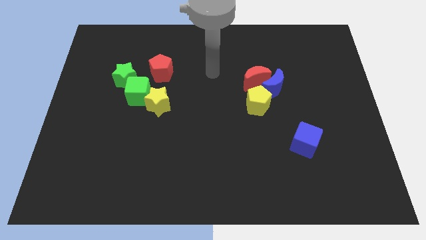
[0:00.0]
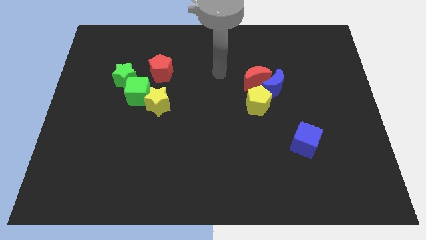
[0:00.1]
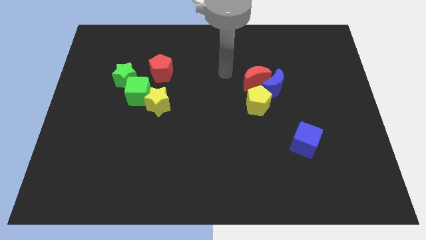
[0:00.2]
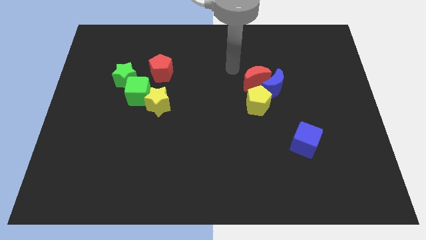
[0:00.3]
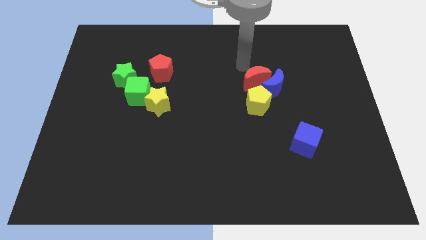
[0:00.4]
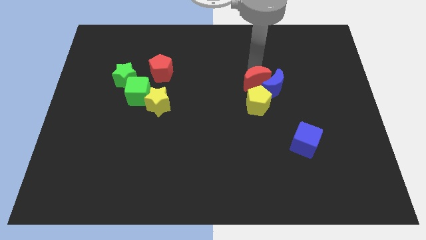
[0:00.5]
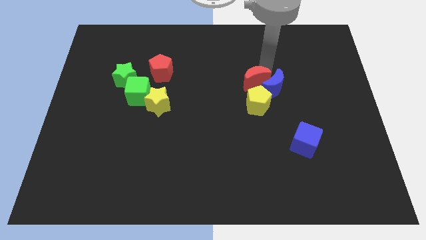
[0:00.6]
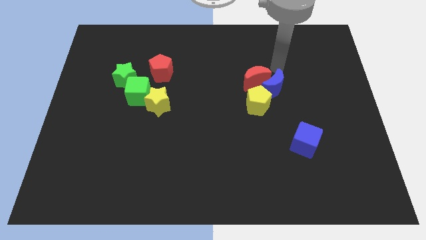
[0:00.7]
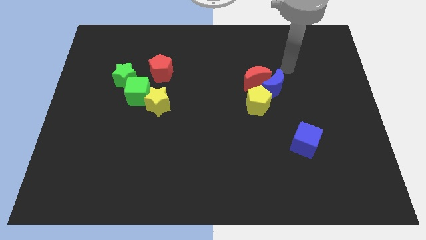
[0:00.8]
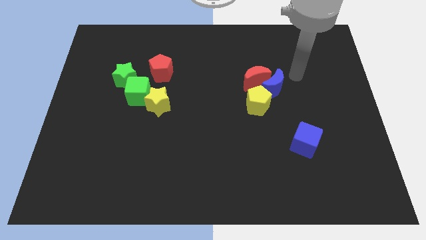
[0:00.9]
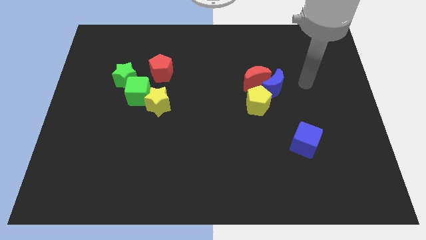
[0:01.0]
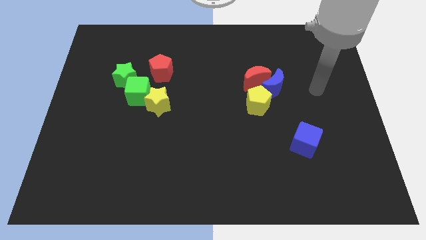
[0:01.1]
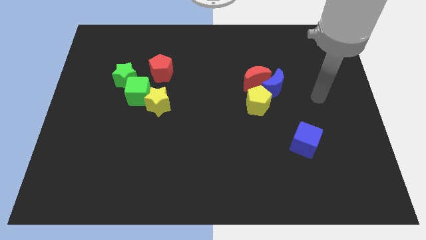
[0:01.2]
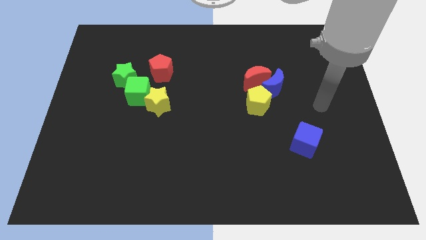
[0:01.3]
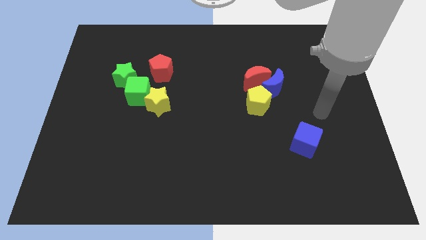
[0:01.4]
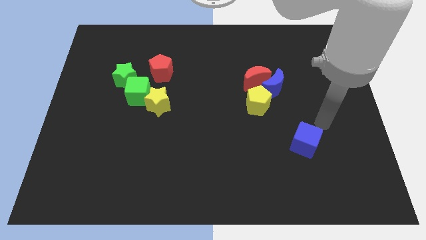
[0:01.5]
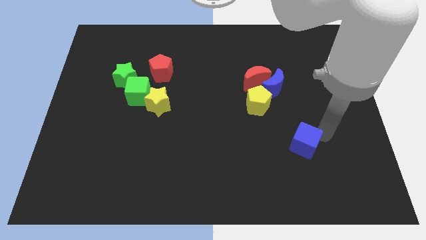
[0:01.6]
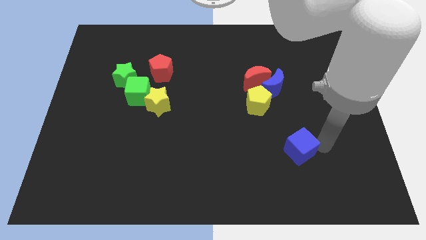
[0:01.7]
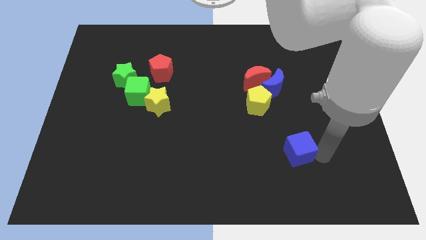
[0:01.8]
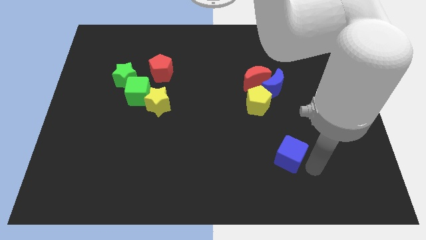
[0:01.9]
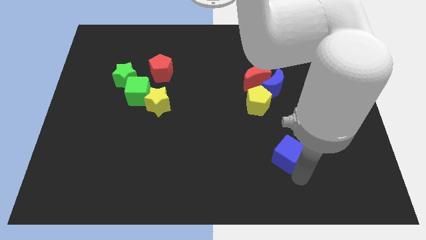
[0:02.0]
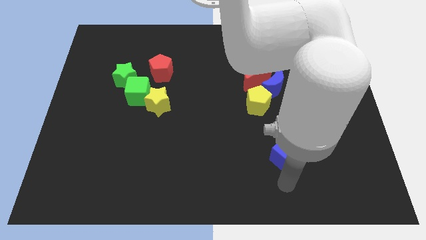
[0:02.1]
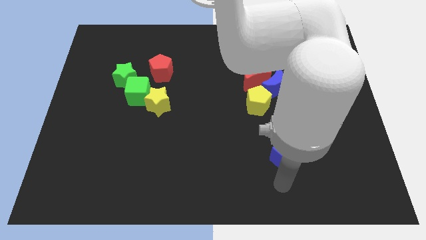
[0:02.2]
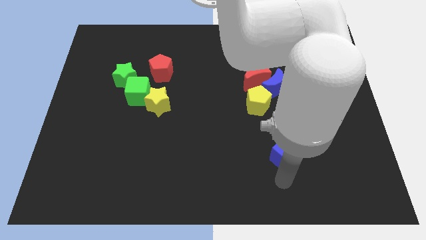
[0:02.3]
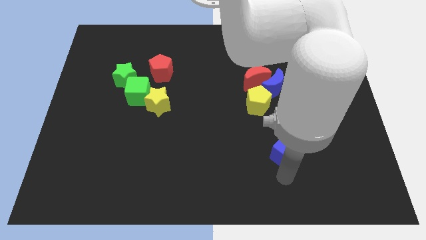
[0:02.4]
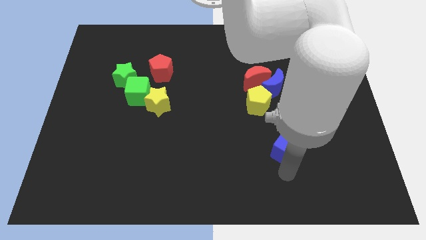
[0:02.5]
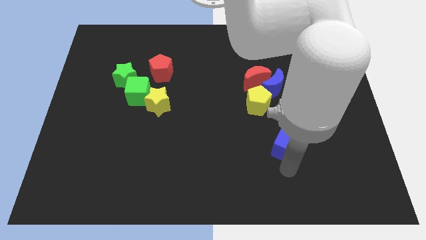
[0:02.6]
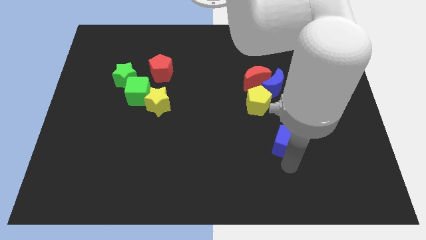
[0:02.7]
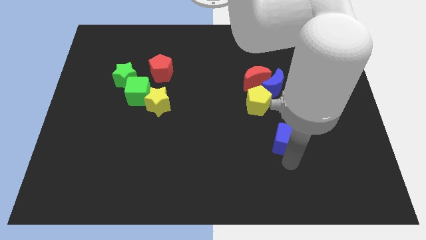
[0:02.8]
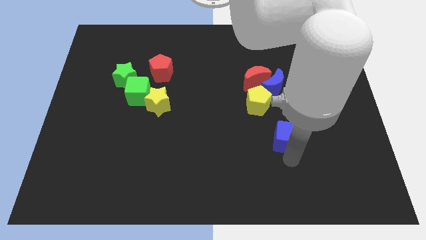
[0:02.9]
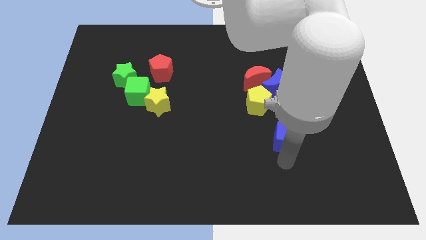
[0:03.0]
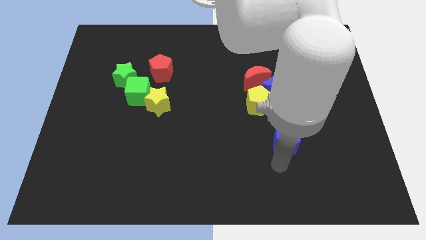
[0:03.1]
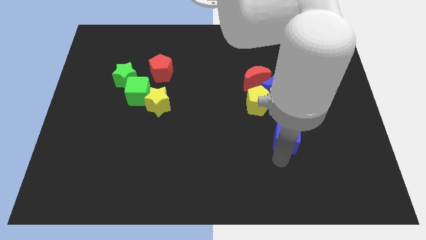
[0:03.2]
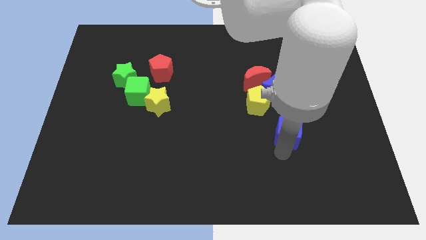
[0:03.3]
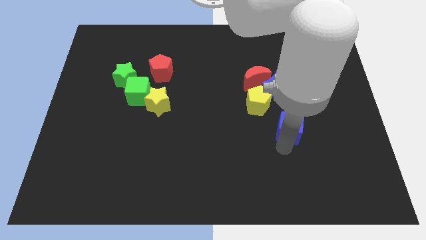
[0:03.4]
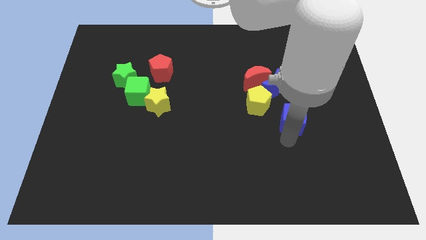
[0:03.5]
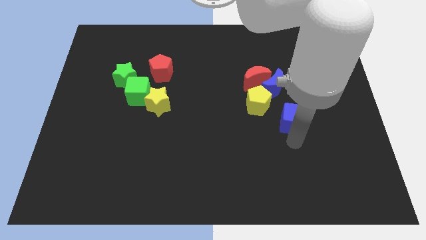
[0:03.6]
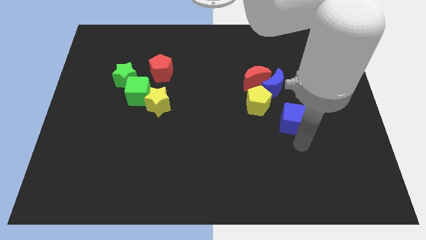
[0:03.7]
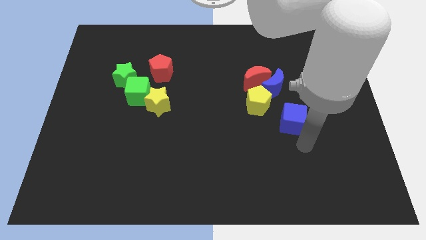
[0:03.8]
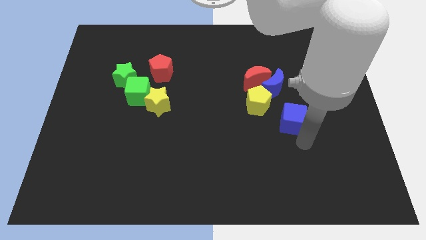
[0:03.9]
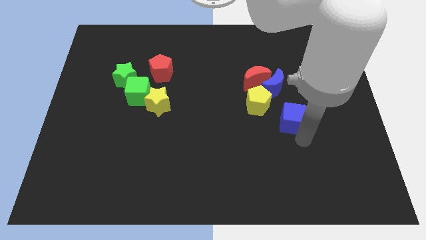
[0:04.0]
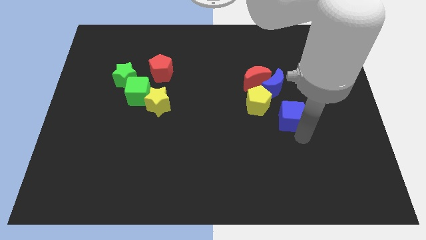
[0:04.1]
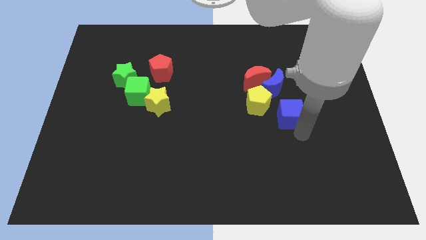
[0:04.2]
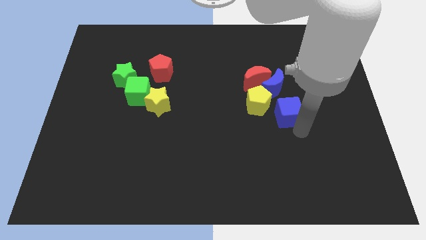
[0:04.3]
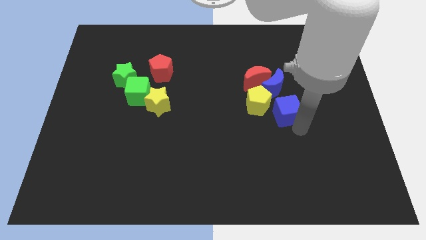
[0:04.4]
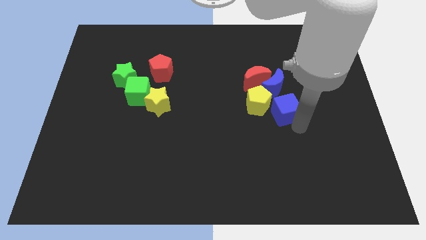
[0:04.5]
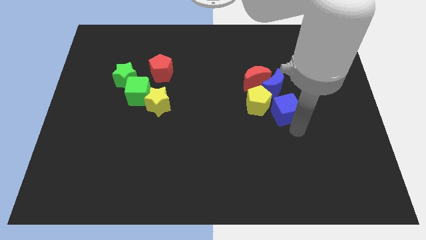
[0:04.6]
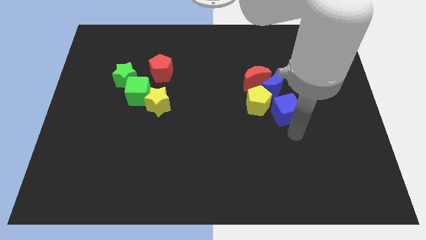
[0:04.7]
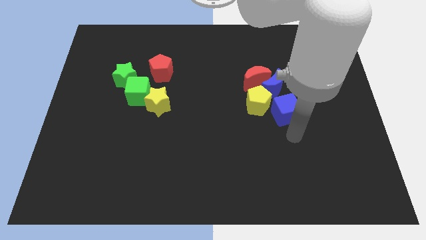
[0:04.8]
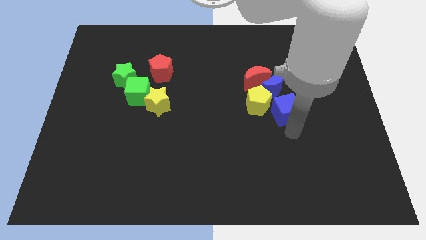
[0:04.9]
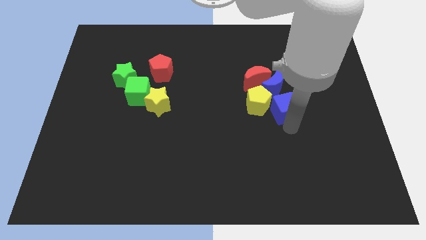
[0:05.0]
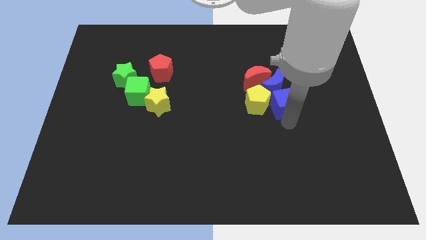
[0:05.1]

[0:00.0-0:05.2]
move the blue cube towards the blue moon

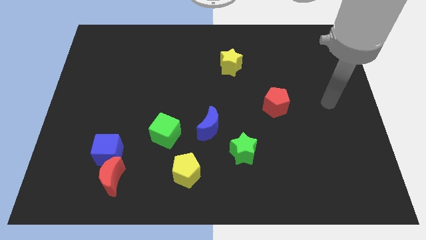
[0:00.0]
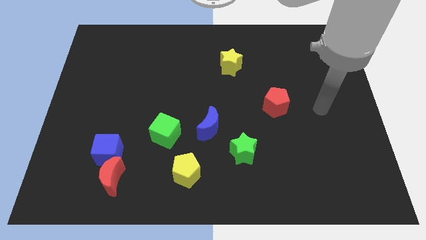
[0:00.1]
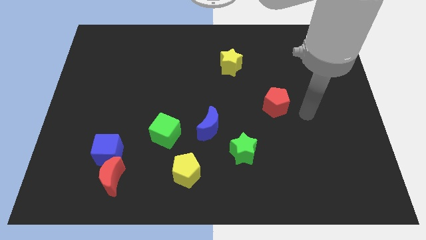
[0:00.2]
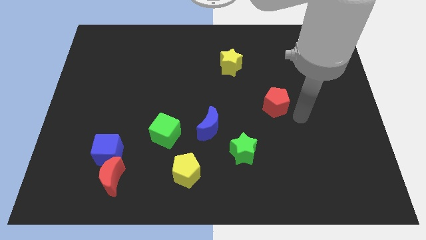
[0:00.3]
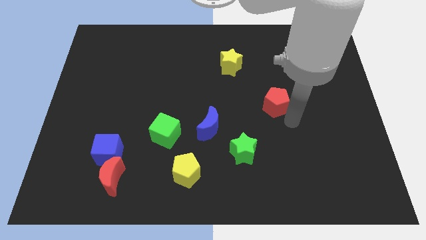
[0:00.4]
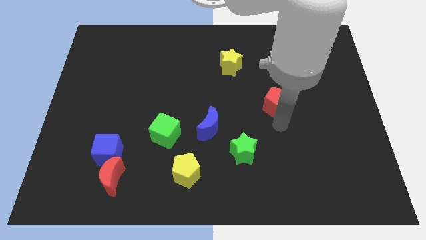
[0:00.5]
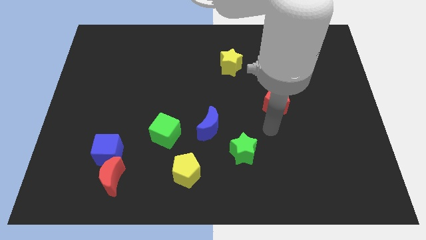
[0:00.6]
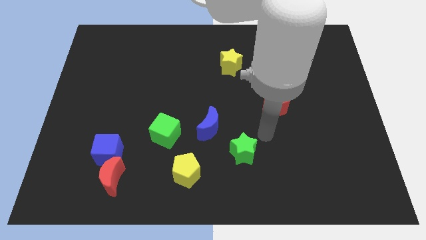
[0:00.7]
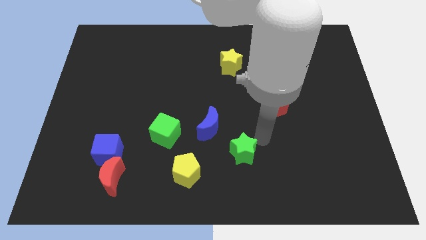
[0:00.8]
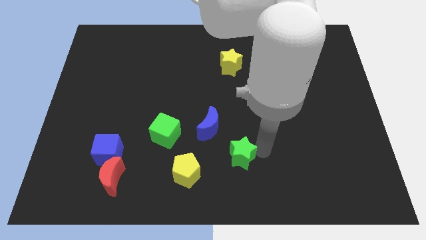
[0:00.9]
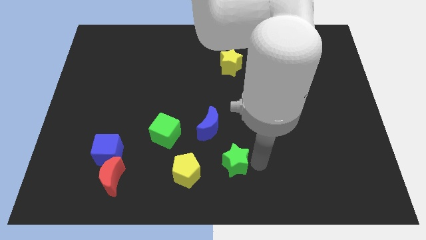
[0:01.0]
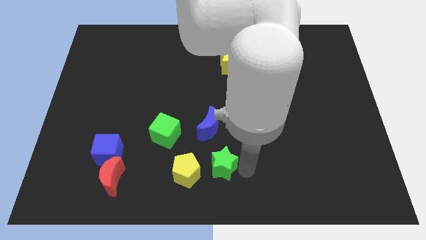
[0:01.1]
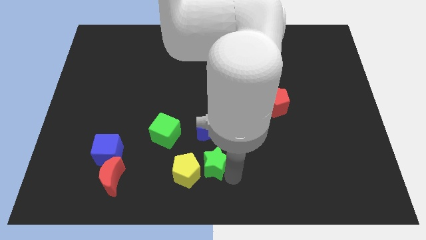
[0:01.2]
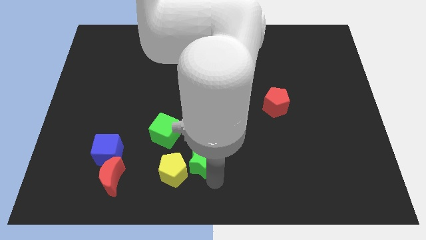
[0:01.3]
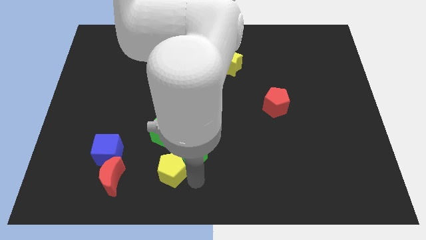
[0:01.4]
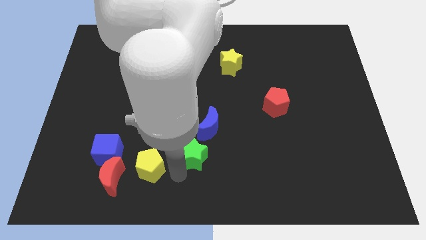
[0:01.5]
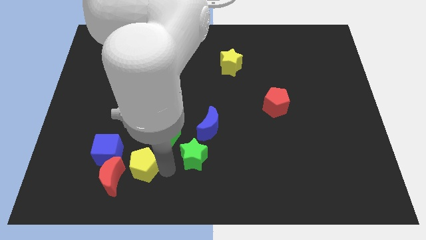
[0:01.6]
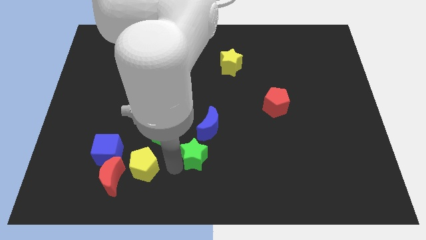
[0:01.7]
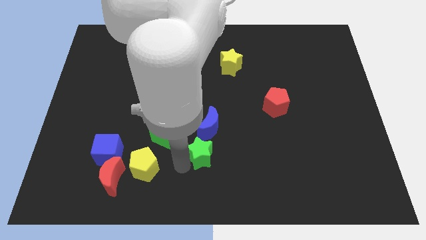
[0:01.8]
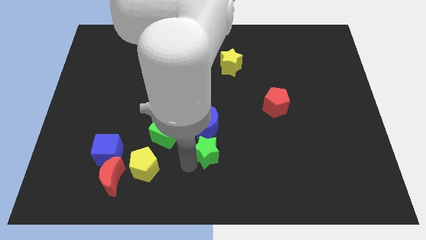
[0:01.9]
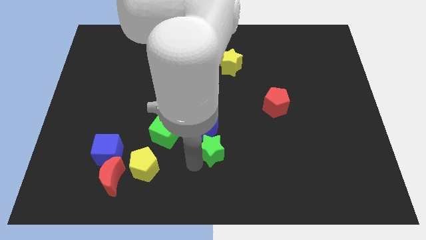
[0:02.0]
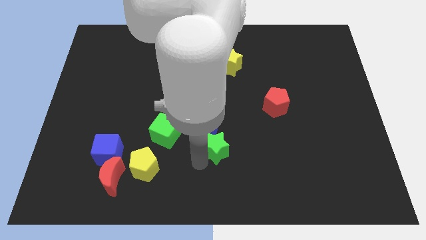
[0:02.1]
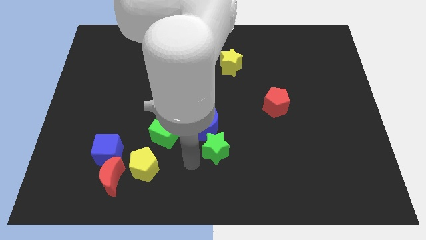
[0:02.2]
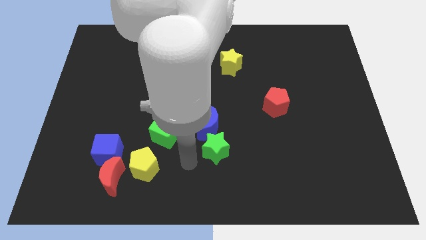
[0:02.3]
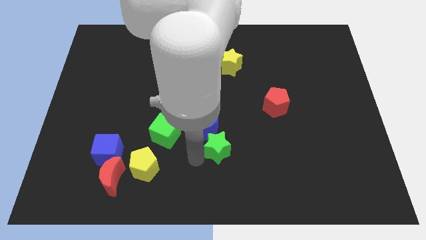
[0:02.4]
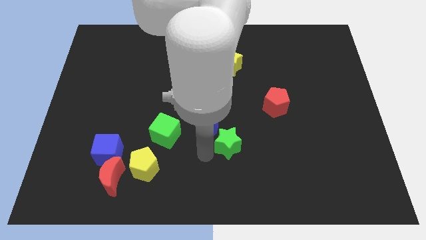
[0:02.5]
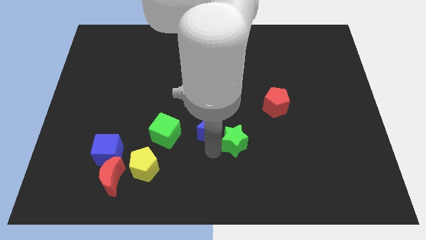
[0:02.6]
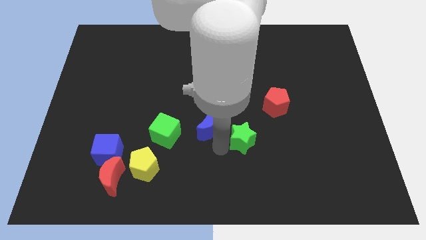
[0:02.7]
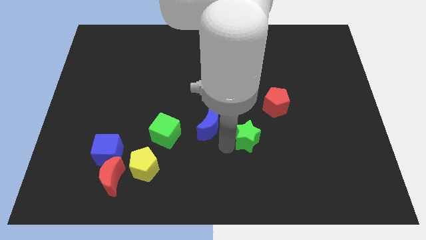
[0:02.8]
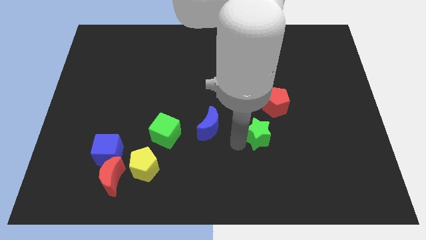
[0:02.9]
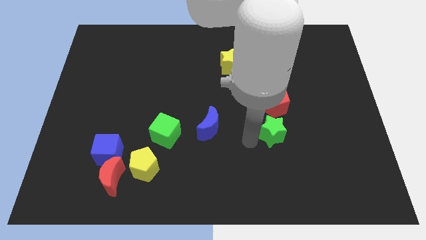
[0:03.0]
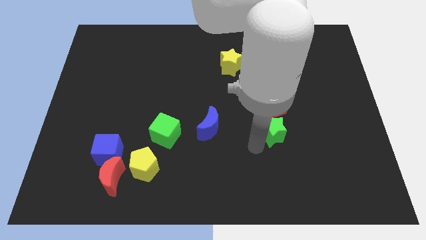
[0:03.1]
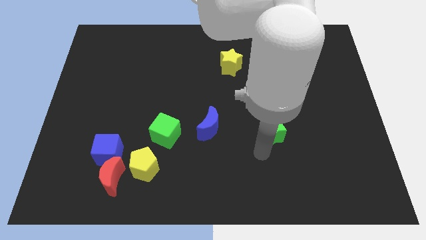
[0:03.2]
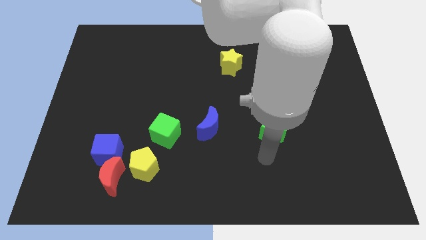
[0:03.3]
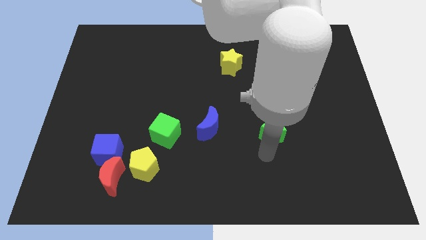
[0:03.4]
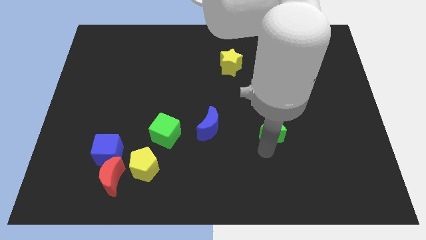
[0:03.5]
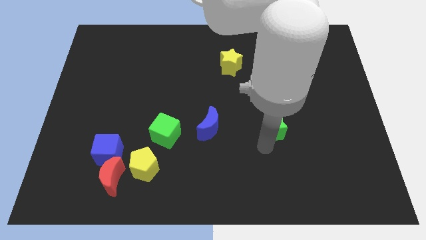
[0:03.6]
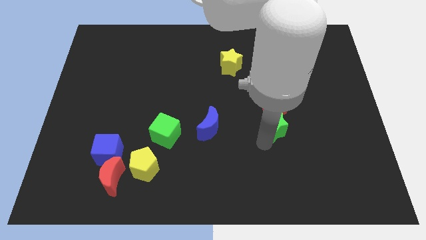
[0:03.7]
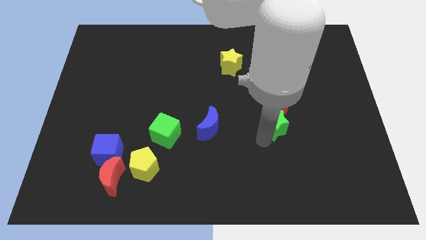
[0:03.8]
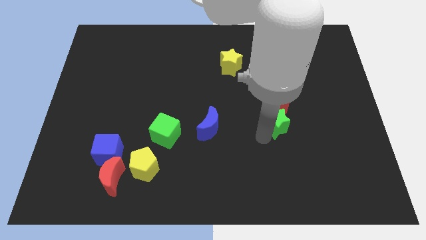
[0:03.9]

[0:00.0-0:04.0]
push the green star to the red pentagon
